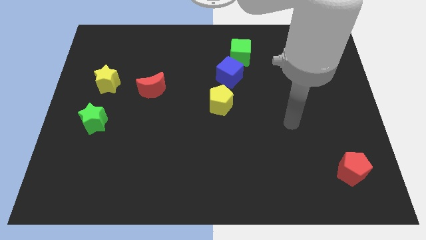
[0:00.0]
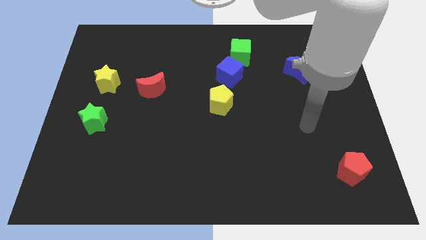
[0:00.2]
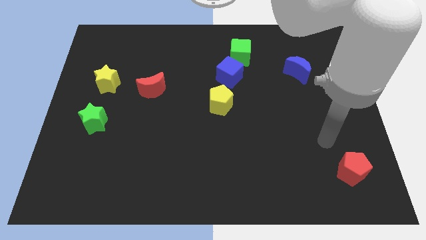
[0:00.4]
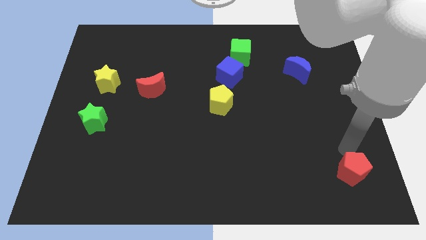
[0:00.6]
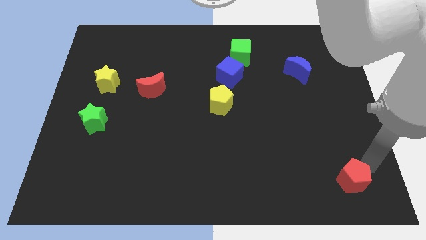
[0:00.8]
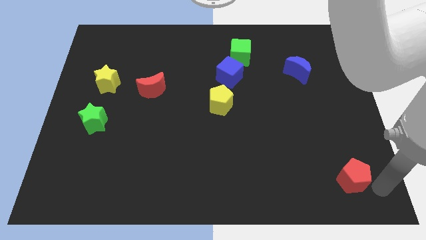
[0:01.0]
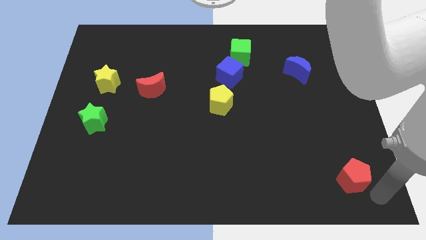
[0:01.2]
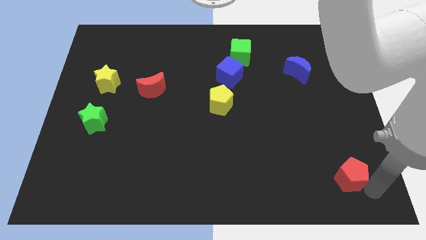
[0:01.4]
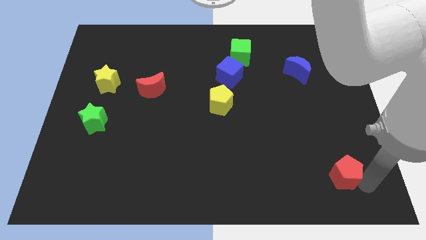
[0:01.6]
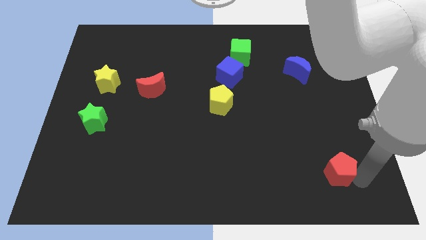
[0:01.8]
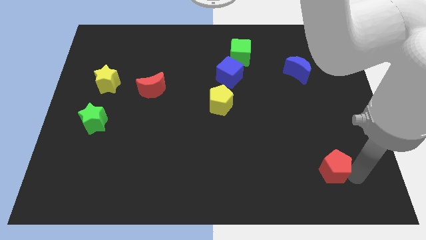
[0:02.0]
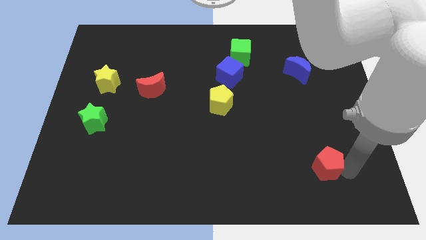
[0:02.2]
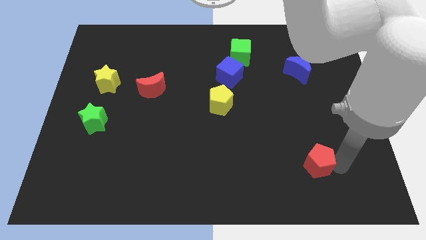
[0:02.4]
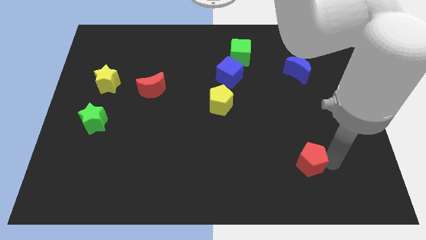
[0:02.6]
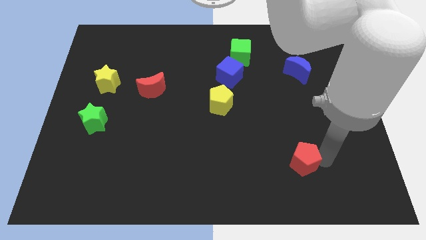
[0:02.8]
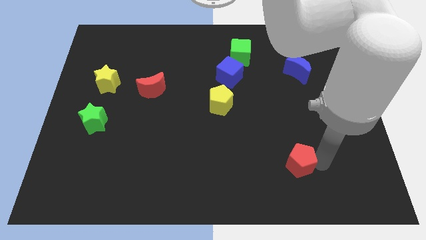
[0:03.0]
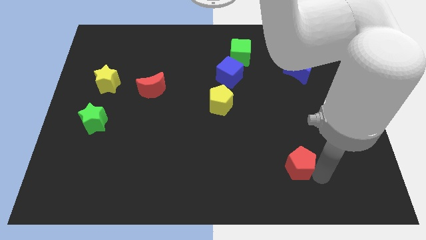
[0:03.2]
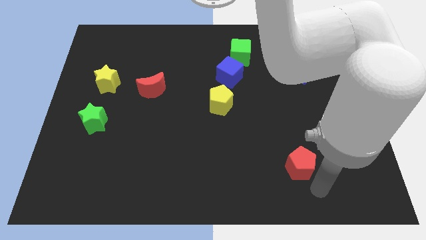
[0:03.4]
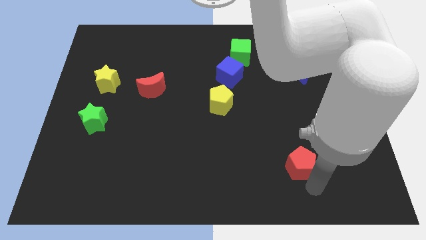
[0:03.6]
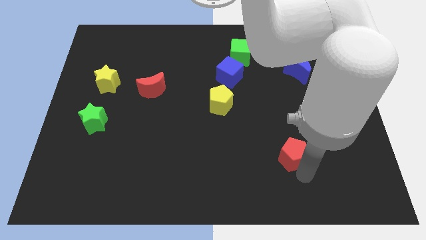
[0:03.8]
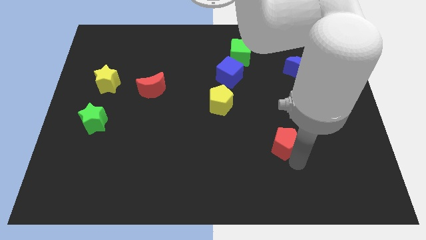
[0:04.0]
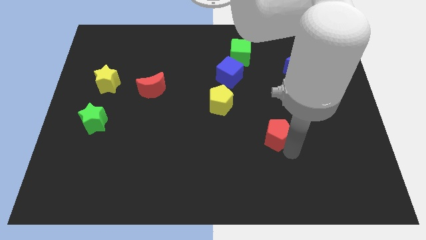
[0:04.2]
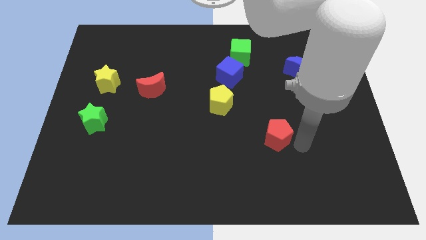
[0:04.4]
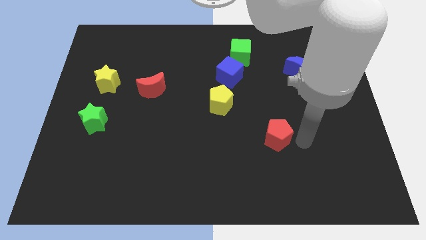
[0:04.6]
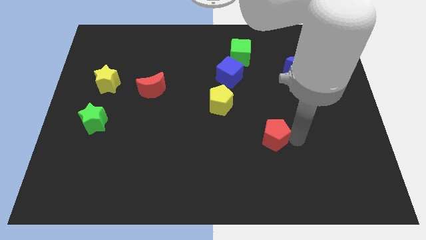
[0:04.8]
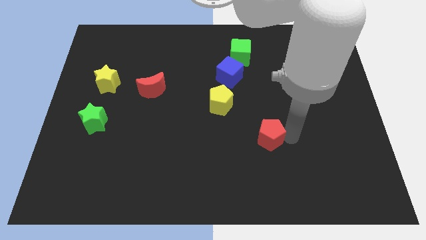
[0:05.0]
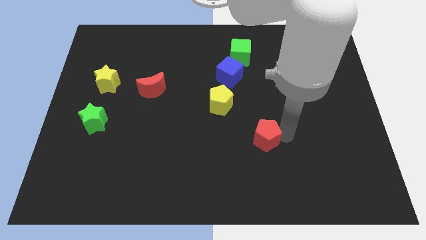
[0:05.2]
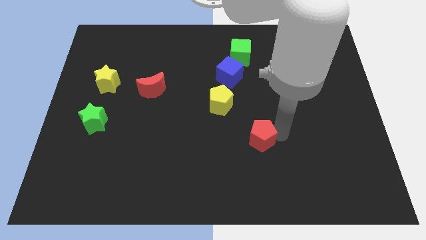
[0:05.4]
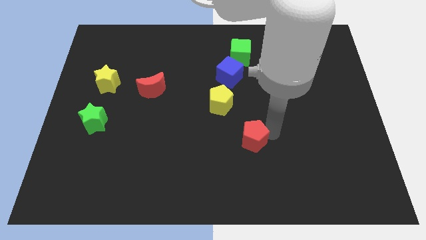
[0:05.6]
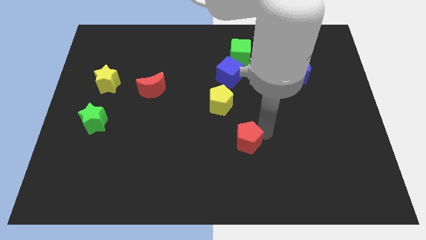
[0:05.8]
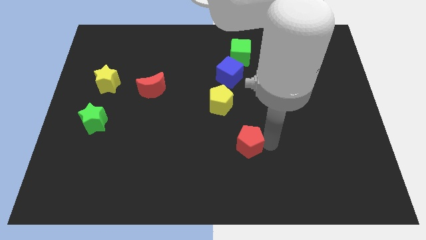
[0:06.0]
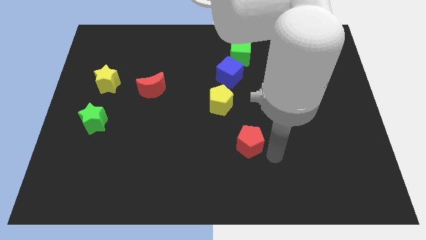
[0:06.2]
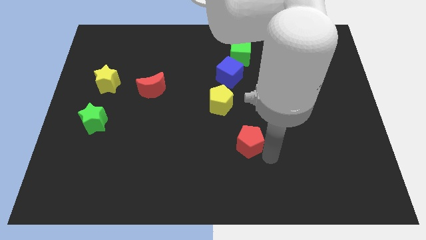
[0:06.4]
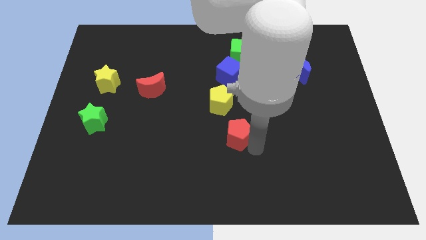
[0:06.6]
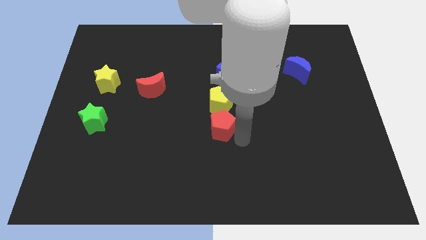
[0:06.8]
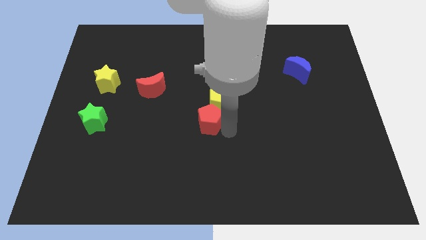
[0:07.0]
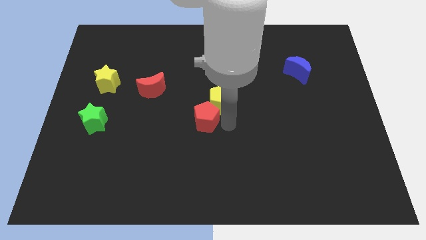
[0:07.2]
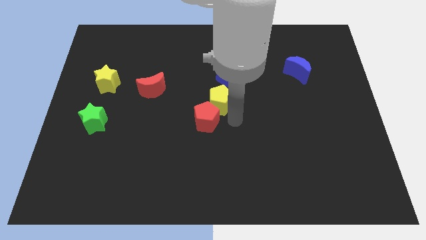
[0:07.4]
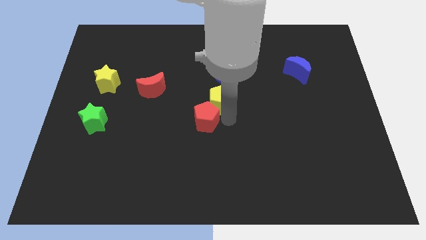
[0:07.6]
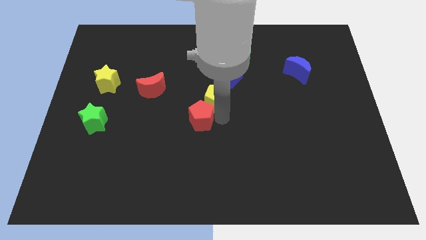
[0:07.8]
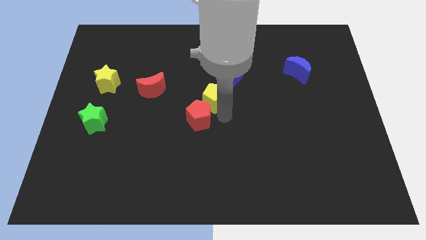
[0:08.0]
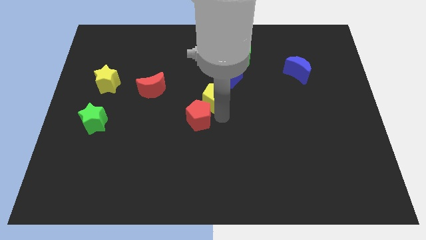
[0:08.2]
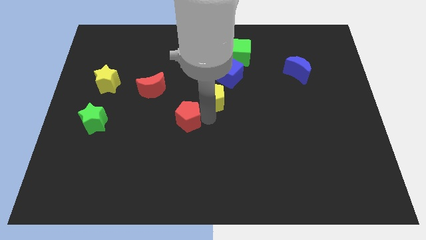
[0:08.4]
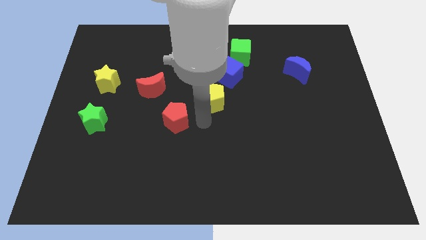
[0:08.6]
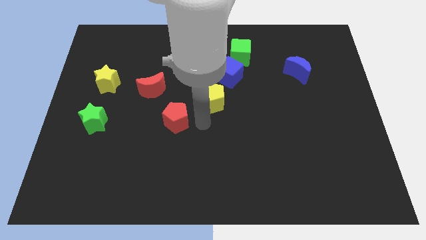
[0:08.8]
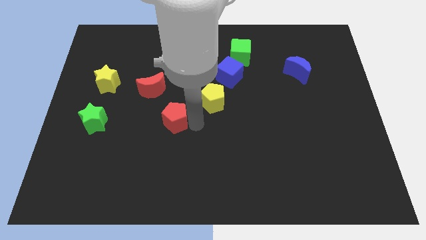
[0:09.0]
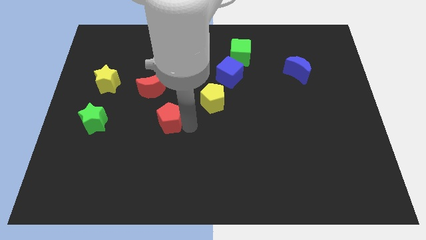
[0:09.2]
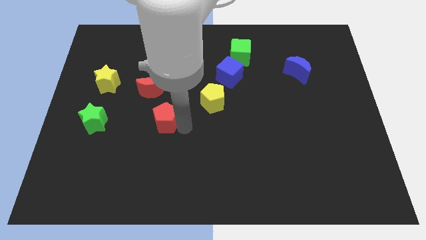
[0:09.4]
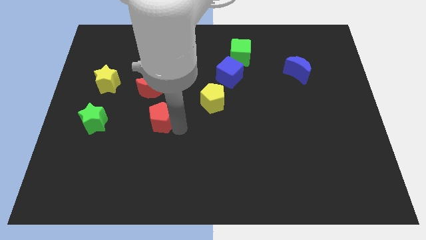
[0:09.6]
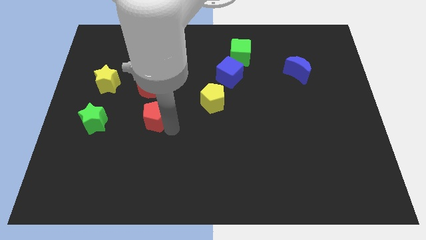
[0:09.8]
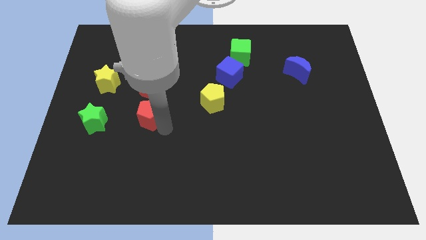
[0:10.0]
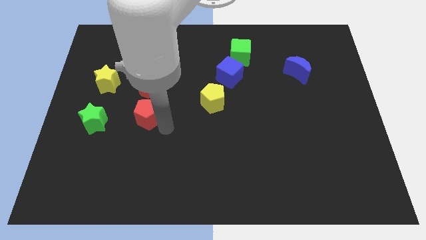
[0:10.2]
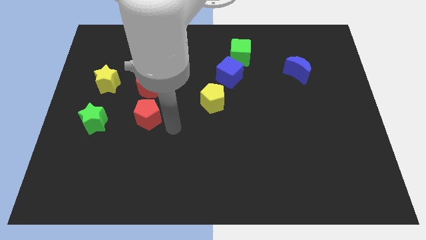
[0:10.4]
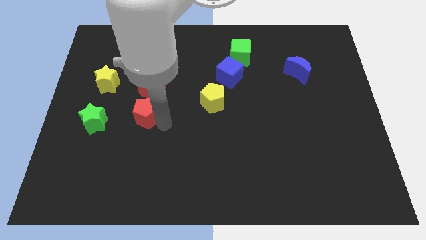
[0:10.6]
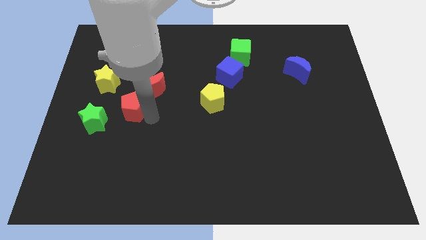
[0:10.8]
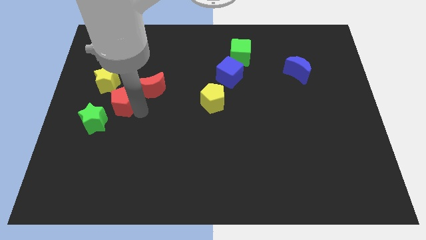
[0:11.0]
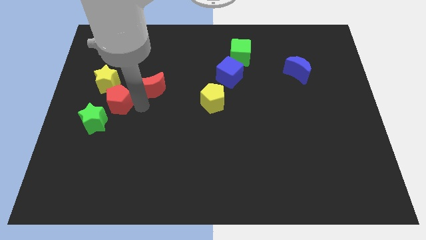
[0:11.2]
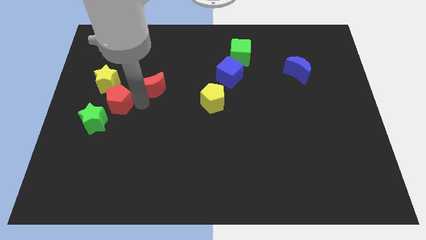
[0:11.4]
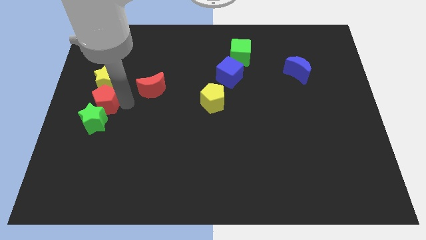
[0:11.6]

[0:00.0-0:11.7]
slide the red pentagon to the left side of the board
